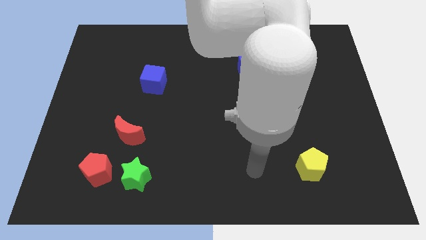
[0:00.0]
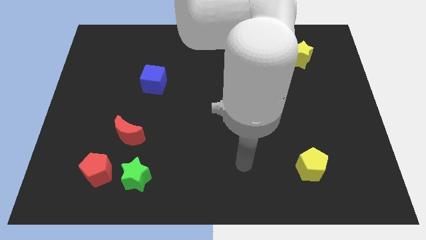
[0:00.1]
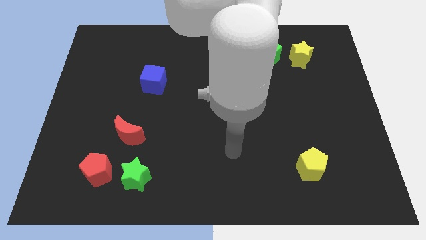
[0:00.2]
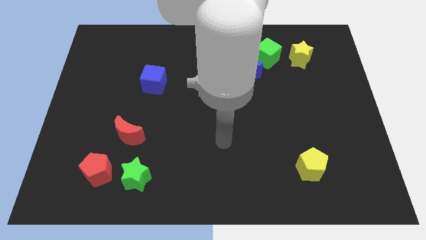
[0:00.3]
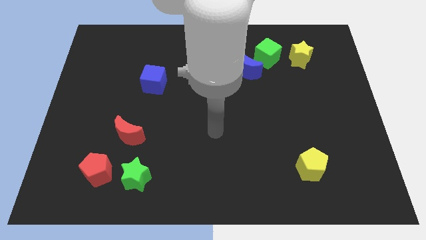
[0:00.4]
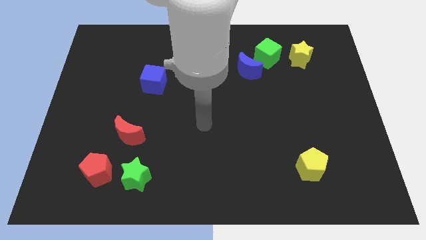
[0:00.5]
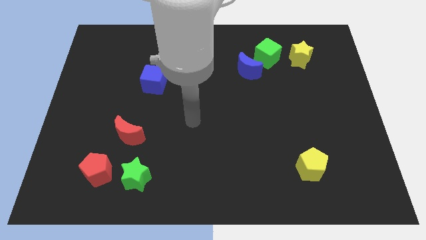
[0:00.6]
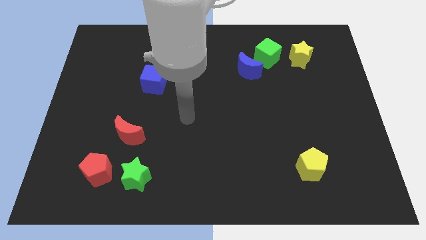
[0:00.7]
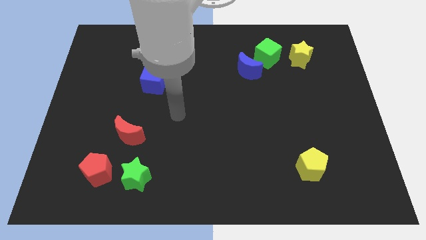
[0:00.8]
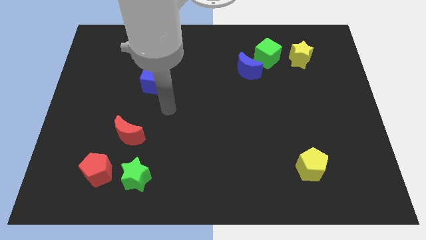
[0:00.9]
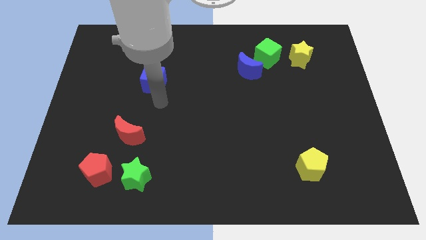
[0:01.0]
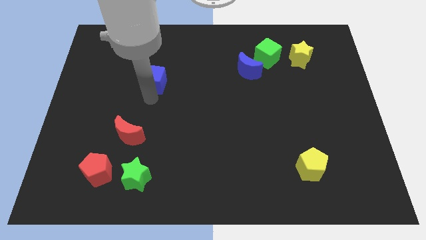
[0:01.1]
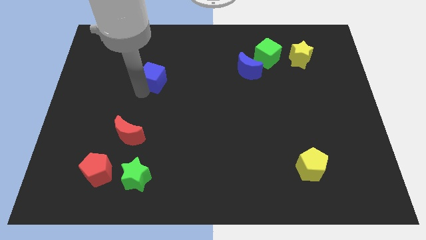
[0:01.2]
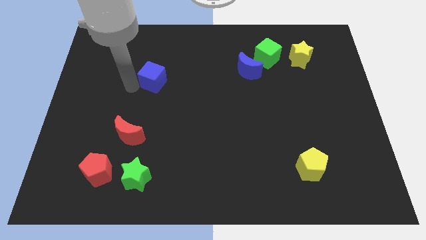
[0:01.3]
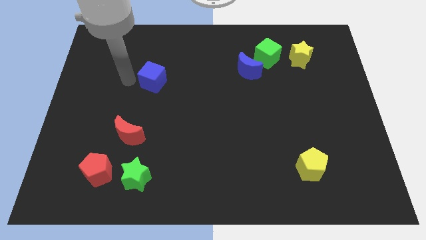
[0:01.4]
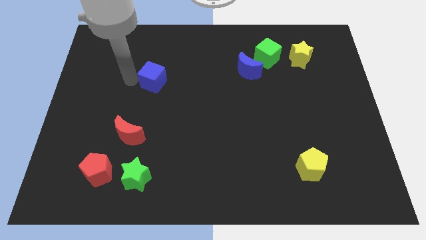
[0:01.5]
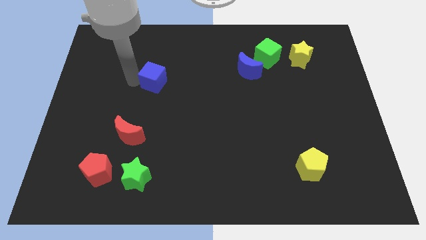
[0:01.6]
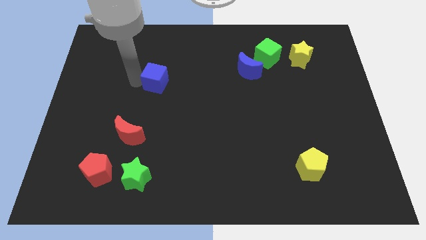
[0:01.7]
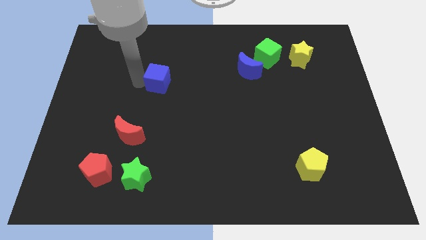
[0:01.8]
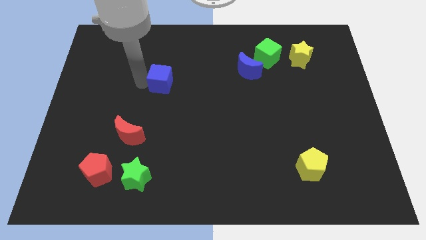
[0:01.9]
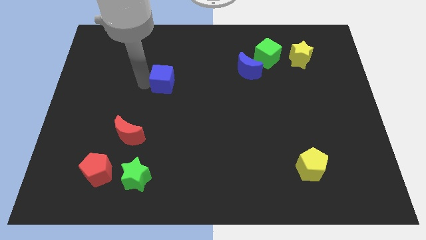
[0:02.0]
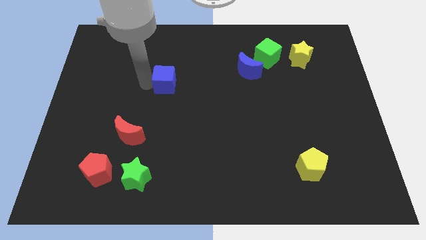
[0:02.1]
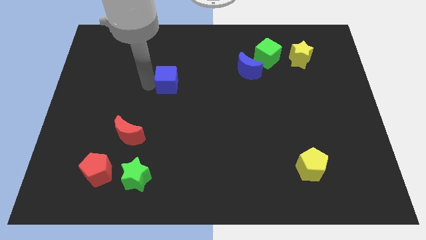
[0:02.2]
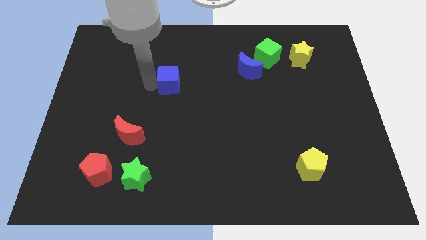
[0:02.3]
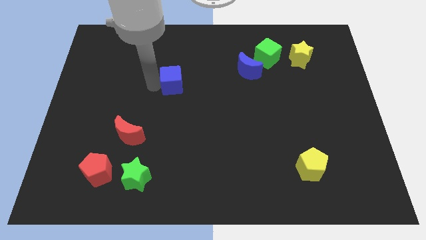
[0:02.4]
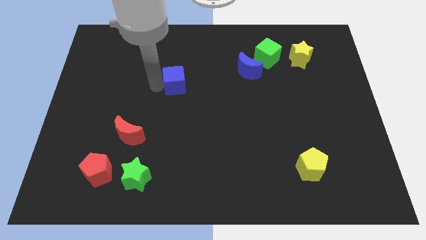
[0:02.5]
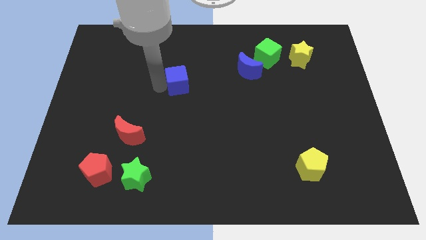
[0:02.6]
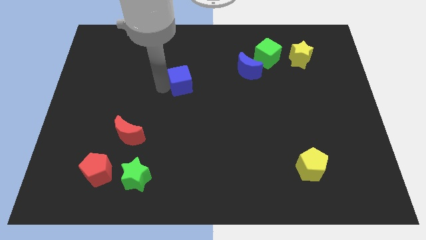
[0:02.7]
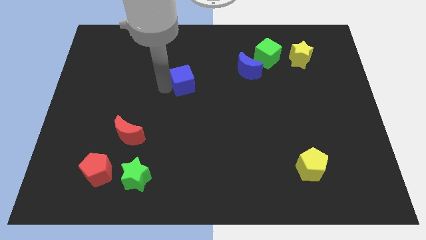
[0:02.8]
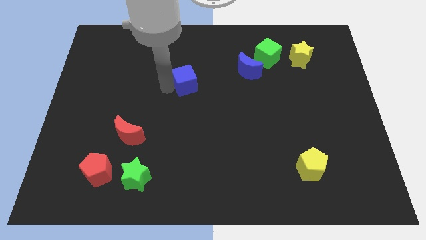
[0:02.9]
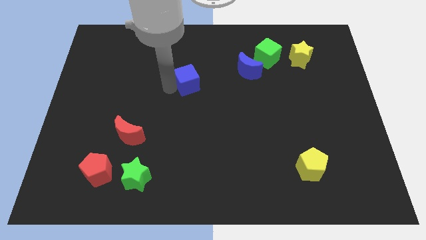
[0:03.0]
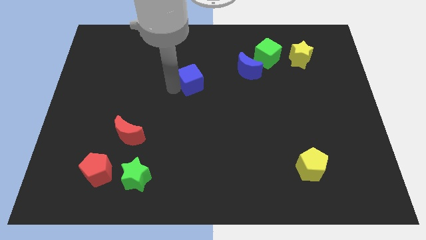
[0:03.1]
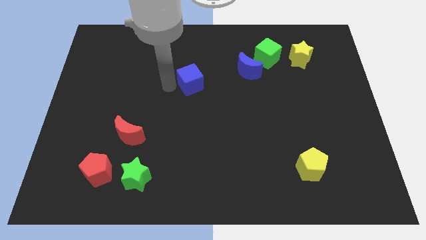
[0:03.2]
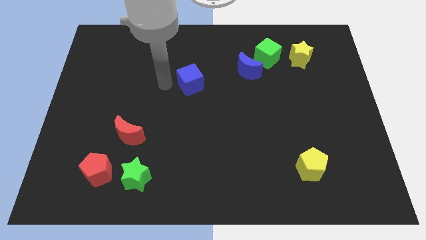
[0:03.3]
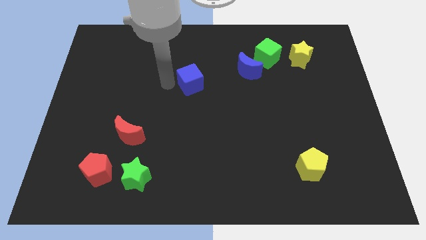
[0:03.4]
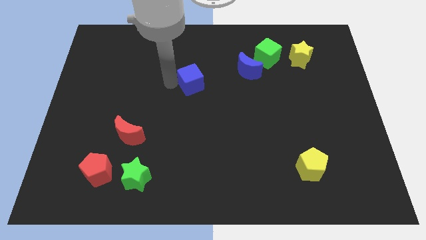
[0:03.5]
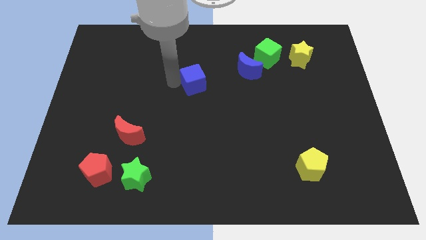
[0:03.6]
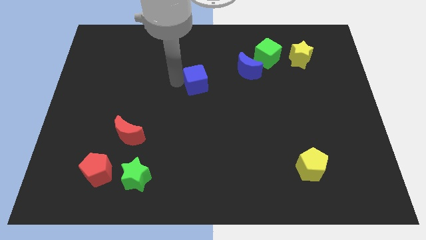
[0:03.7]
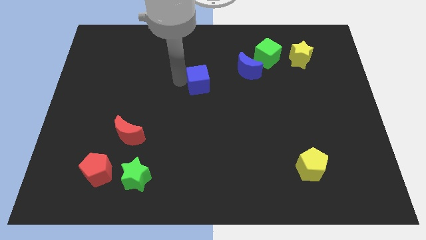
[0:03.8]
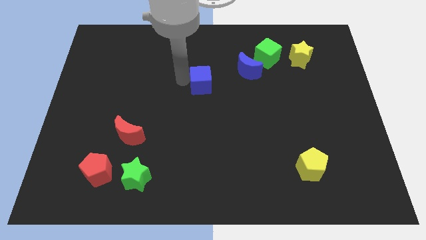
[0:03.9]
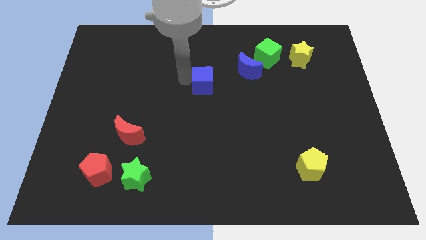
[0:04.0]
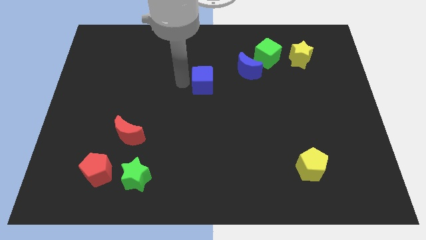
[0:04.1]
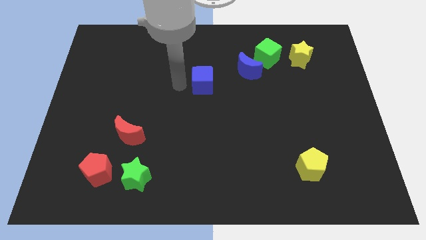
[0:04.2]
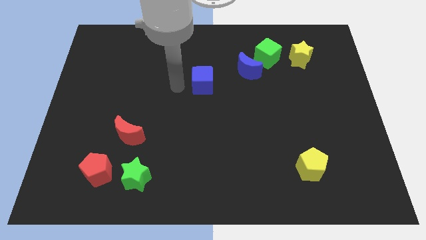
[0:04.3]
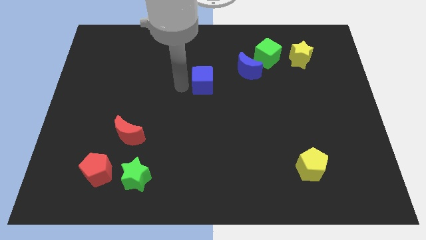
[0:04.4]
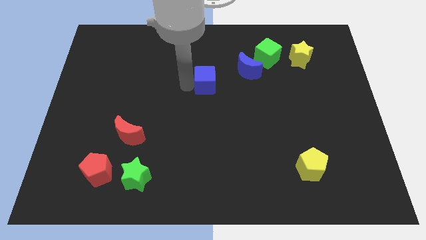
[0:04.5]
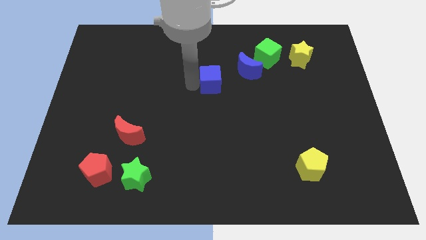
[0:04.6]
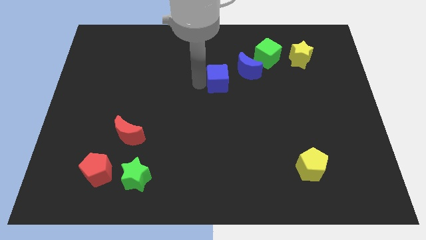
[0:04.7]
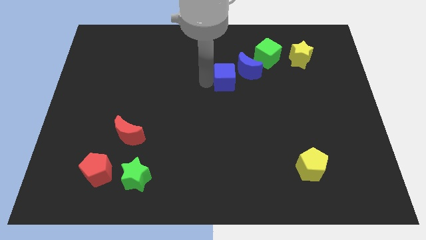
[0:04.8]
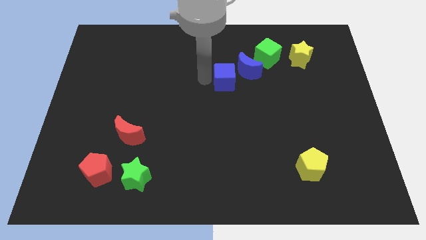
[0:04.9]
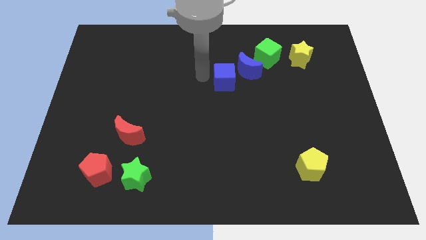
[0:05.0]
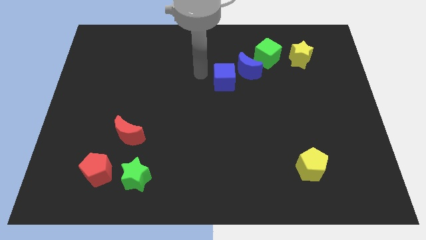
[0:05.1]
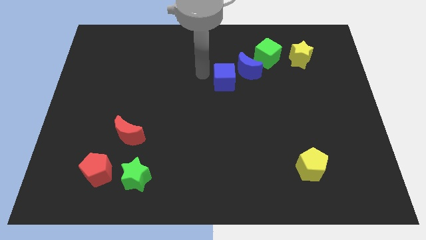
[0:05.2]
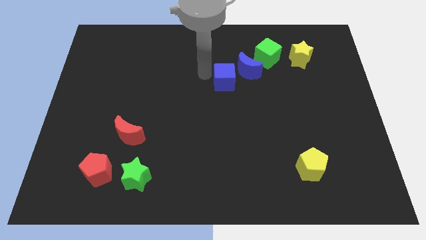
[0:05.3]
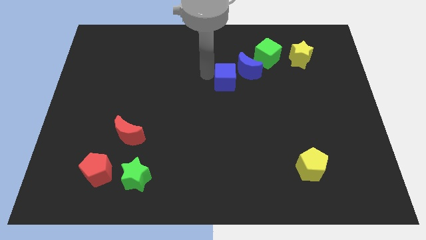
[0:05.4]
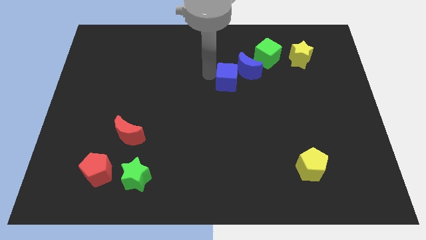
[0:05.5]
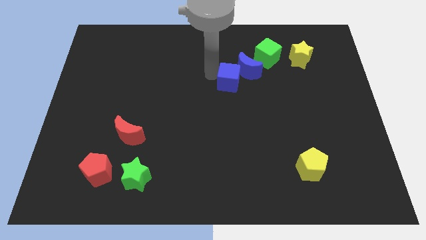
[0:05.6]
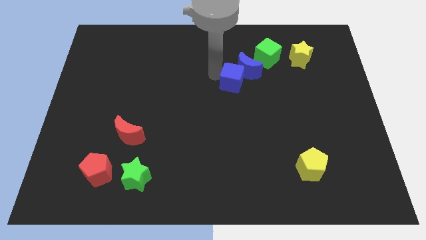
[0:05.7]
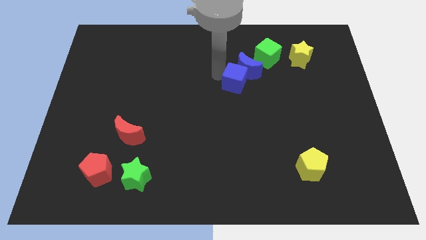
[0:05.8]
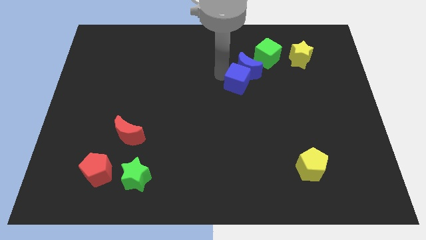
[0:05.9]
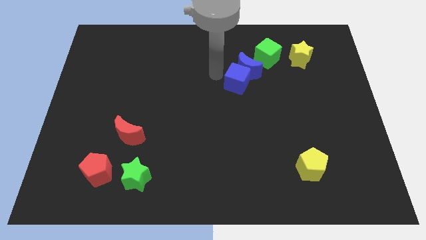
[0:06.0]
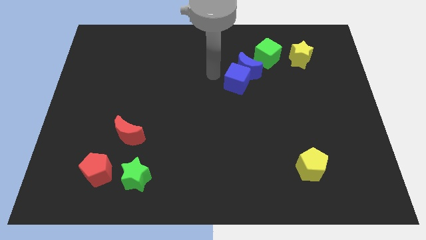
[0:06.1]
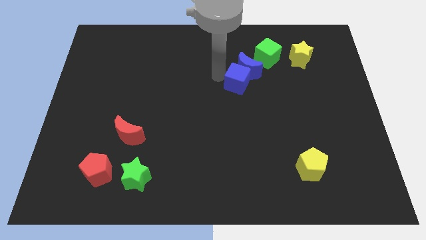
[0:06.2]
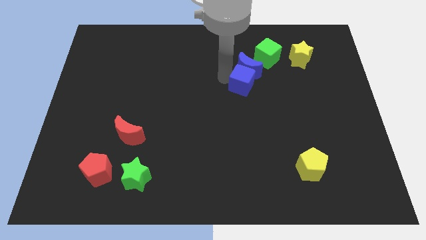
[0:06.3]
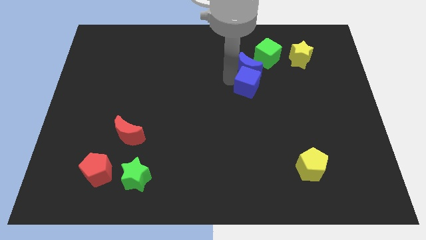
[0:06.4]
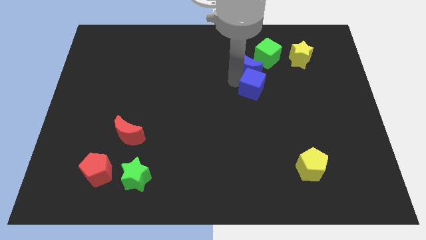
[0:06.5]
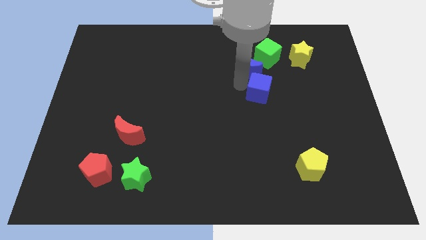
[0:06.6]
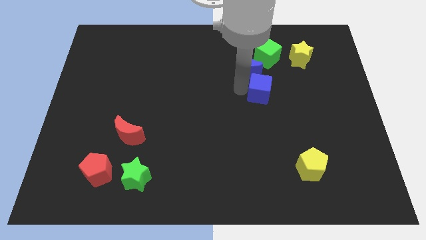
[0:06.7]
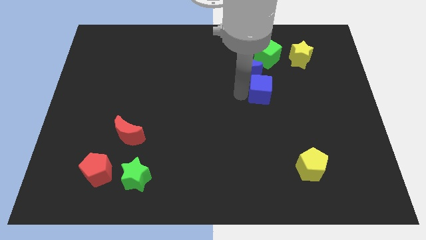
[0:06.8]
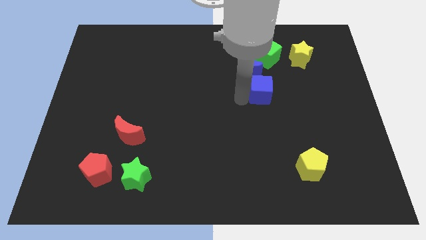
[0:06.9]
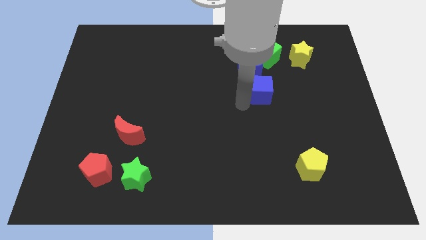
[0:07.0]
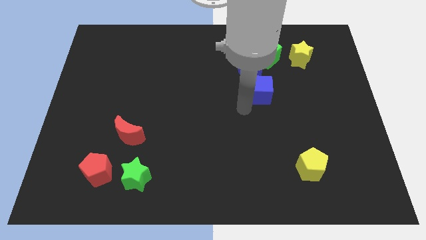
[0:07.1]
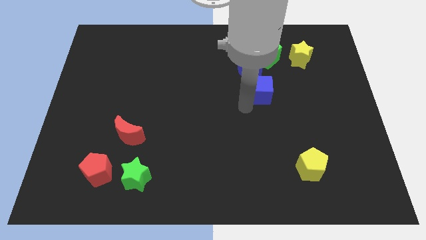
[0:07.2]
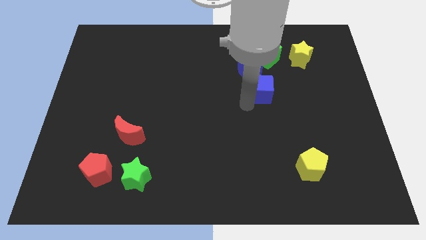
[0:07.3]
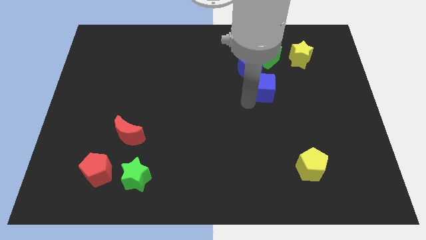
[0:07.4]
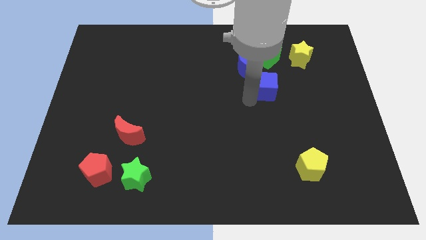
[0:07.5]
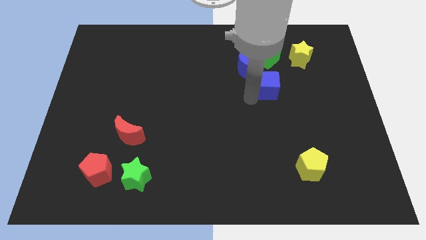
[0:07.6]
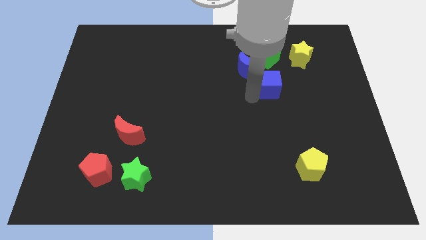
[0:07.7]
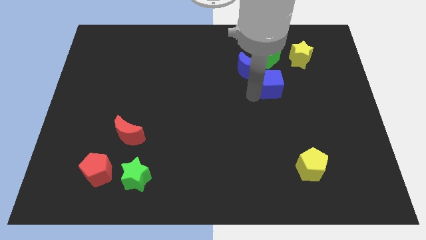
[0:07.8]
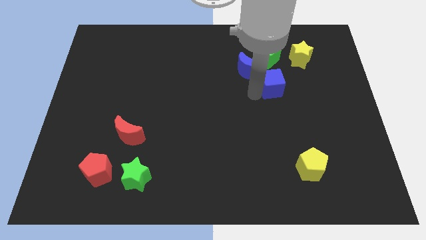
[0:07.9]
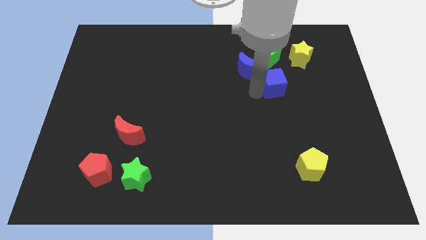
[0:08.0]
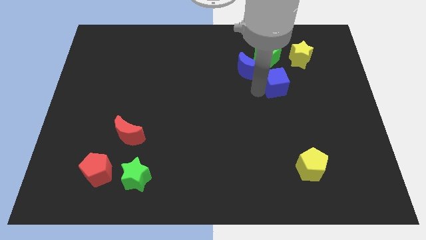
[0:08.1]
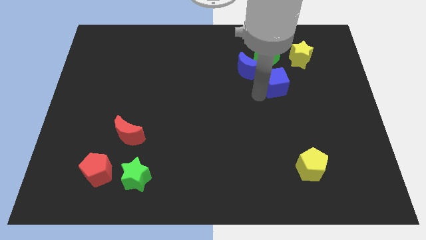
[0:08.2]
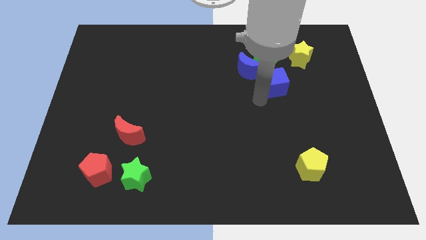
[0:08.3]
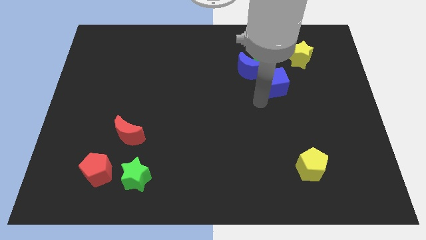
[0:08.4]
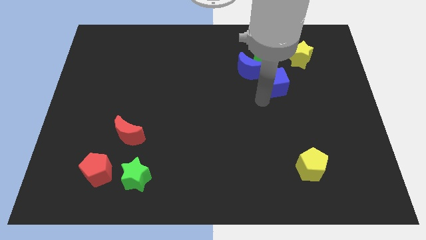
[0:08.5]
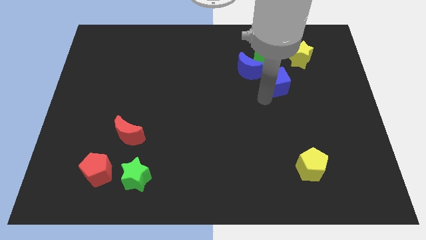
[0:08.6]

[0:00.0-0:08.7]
move the blue cube right of the blue moon
